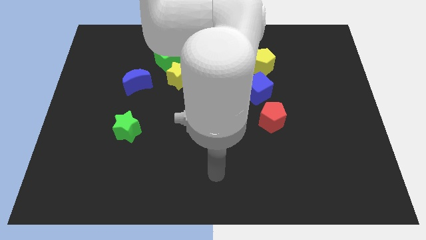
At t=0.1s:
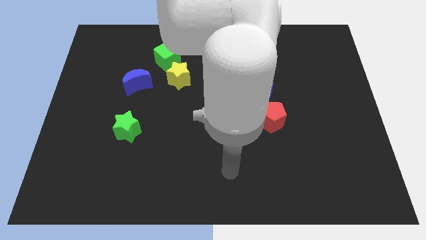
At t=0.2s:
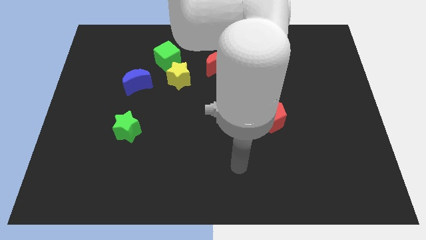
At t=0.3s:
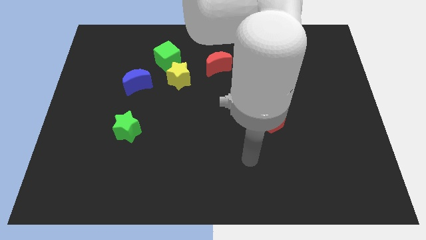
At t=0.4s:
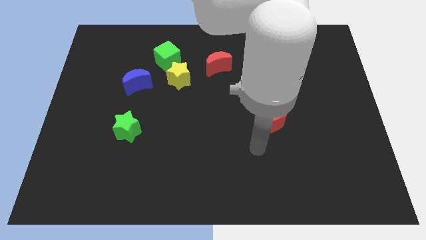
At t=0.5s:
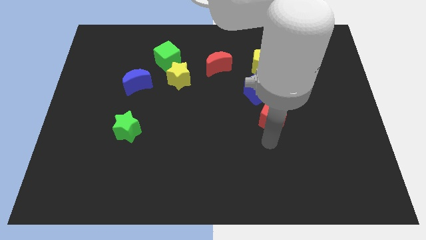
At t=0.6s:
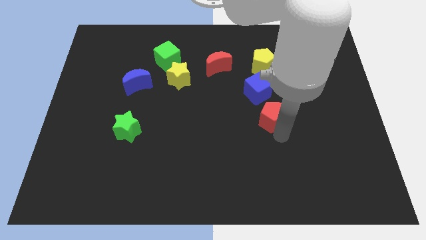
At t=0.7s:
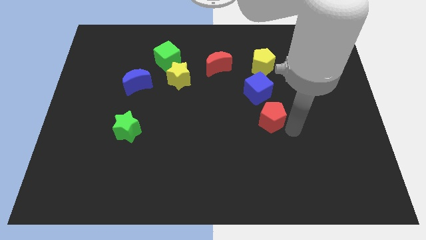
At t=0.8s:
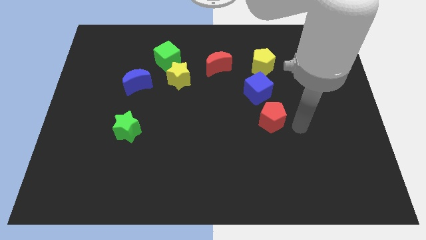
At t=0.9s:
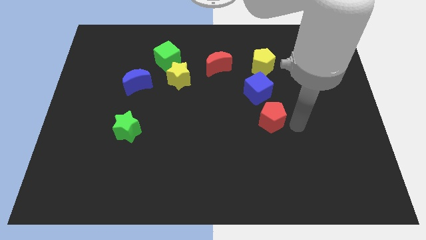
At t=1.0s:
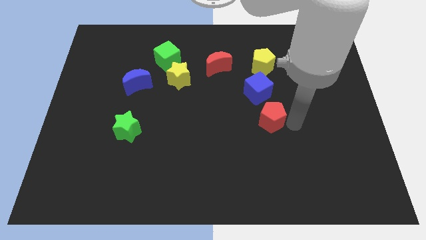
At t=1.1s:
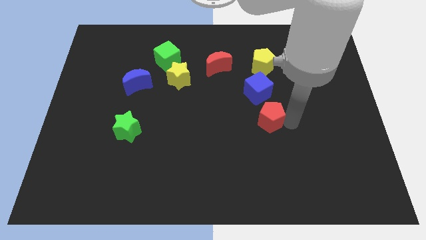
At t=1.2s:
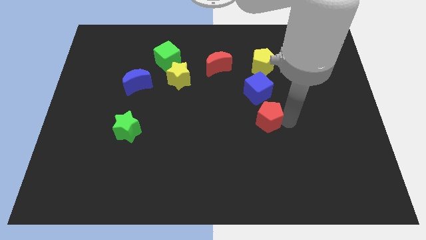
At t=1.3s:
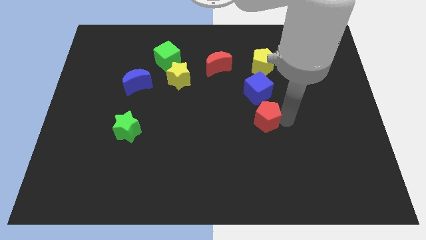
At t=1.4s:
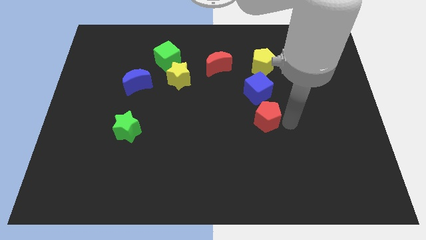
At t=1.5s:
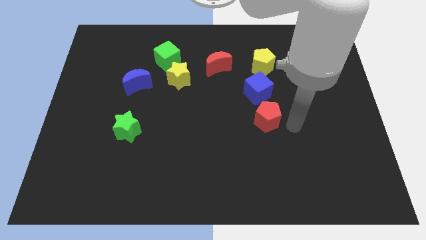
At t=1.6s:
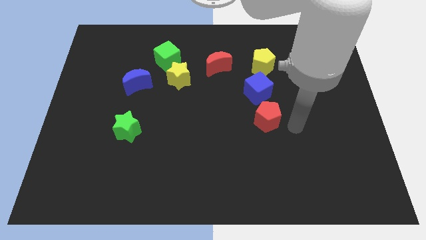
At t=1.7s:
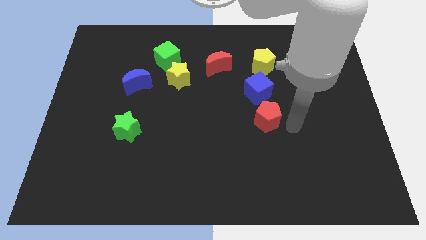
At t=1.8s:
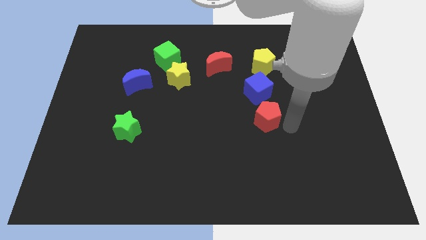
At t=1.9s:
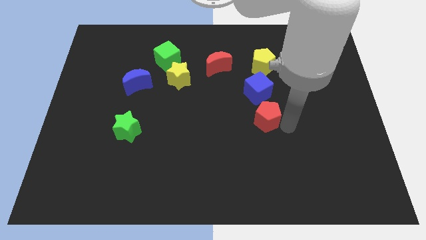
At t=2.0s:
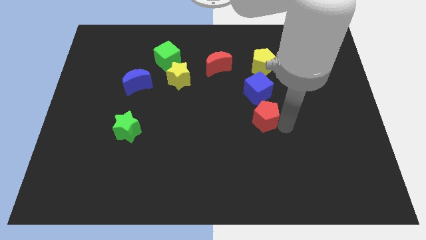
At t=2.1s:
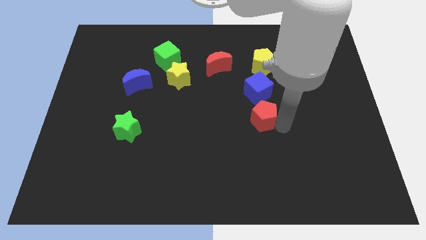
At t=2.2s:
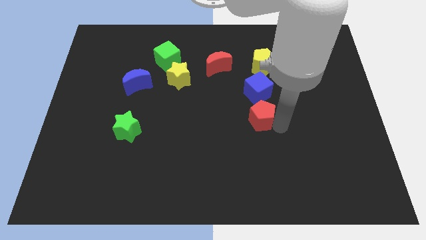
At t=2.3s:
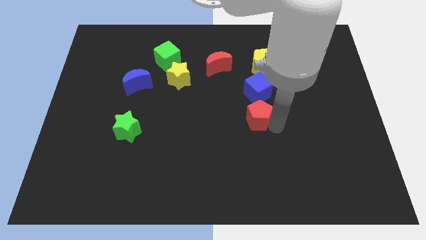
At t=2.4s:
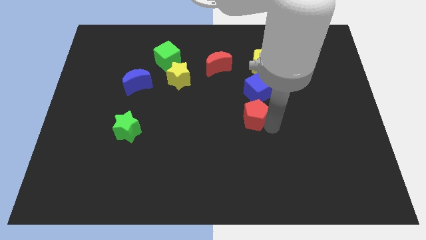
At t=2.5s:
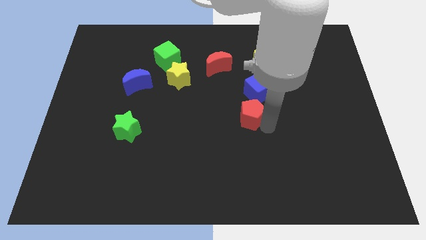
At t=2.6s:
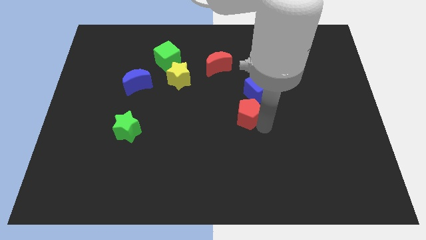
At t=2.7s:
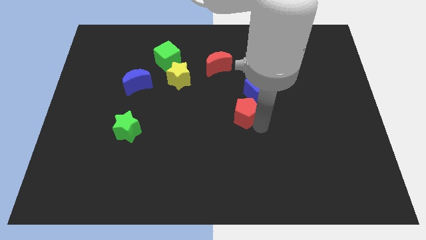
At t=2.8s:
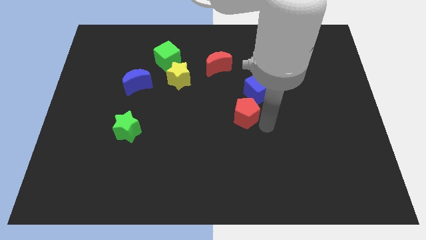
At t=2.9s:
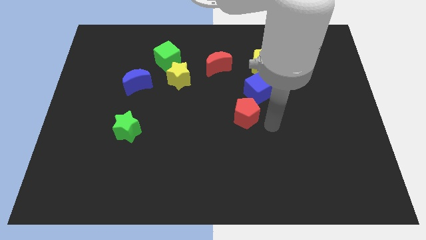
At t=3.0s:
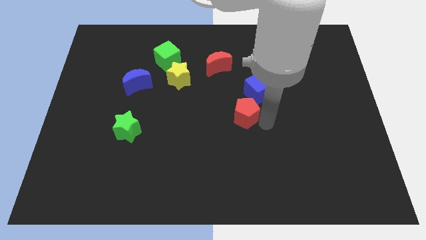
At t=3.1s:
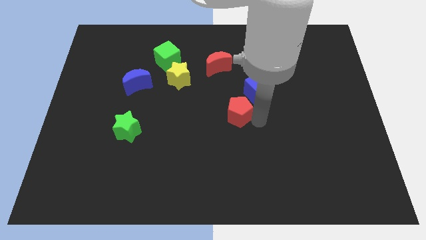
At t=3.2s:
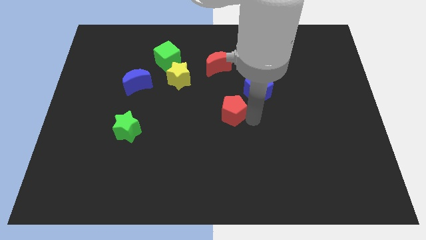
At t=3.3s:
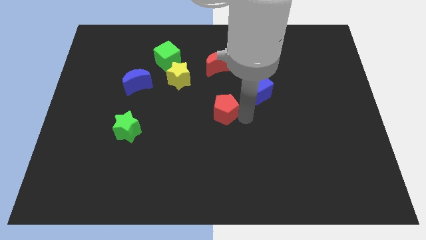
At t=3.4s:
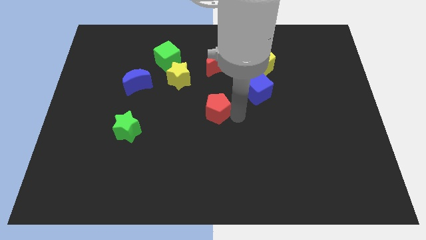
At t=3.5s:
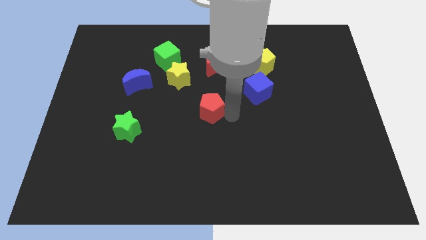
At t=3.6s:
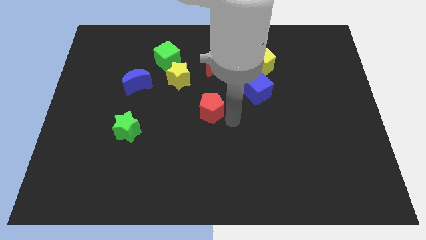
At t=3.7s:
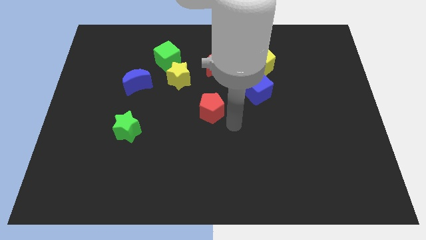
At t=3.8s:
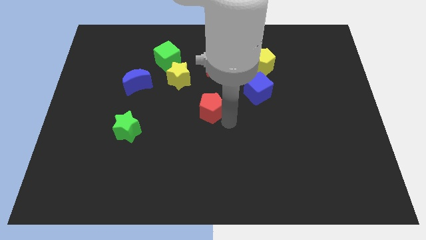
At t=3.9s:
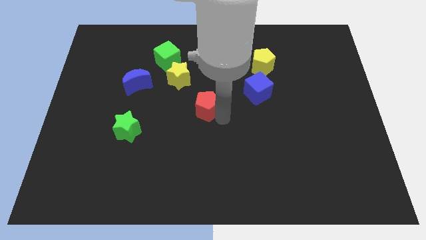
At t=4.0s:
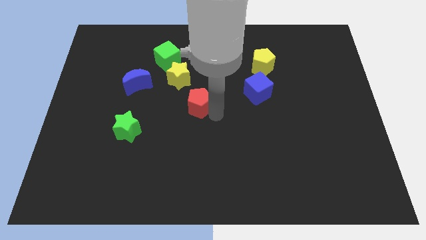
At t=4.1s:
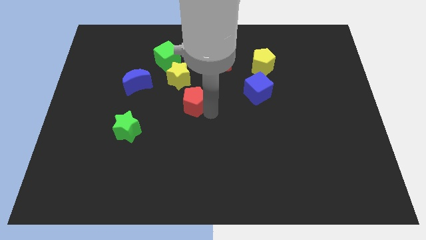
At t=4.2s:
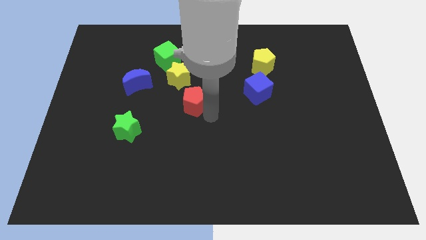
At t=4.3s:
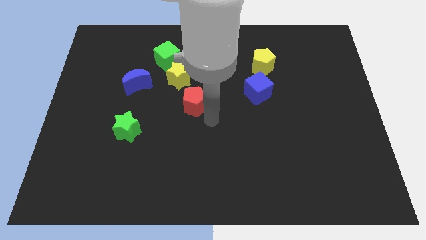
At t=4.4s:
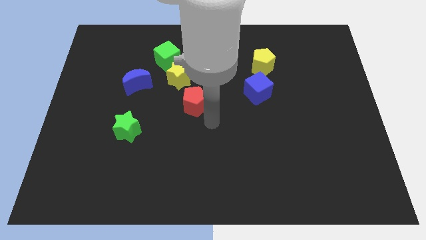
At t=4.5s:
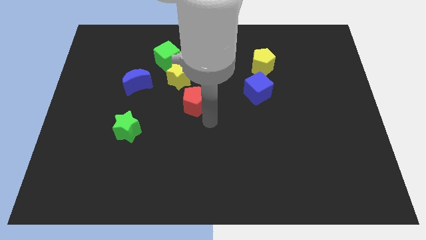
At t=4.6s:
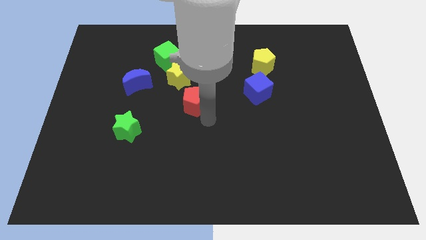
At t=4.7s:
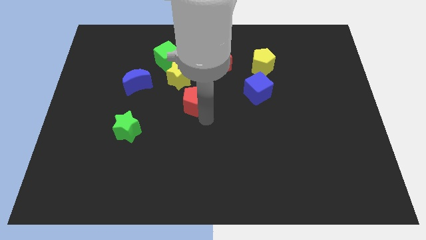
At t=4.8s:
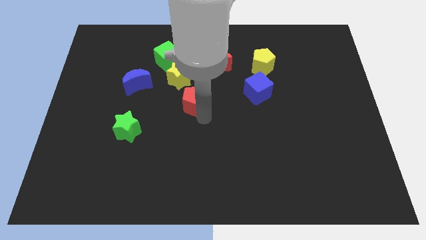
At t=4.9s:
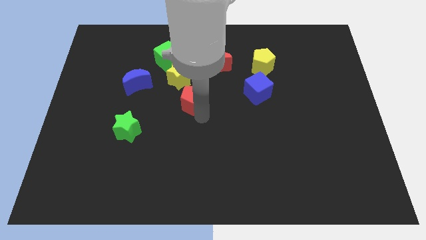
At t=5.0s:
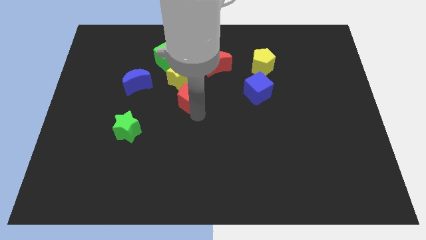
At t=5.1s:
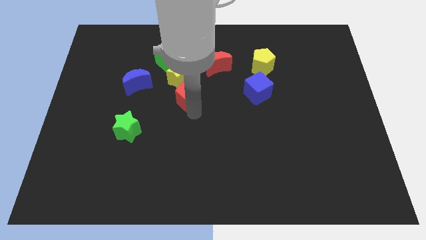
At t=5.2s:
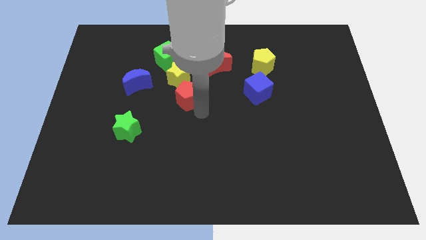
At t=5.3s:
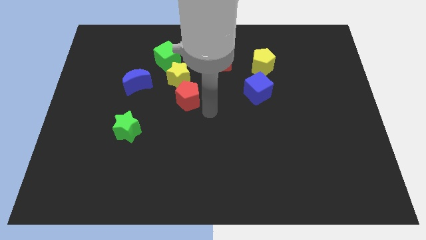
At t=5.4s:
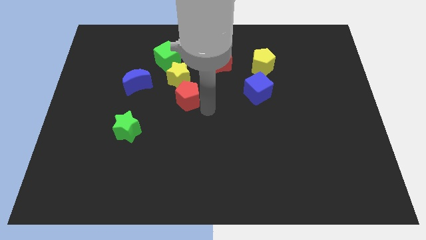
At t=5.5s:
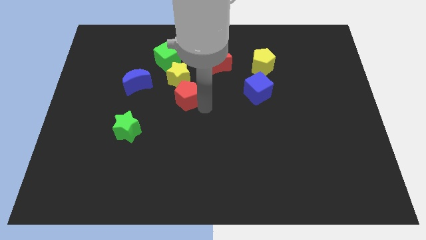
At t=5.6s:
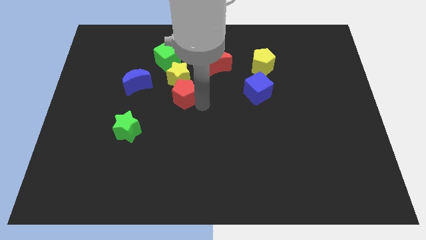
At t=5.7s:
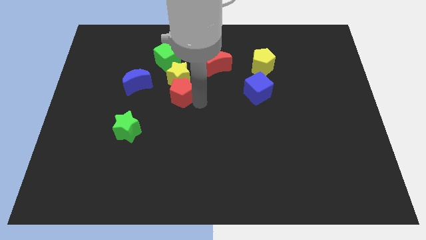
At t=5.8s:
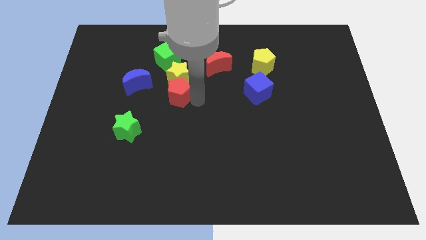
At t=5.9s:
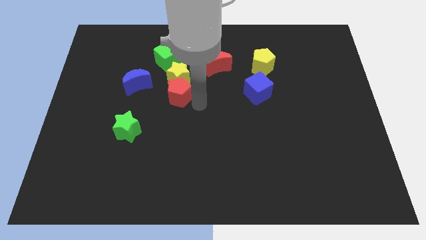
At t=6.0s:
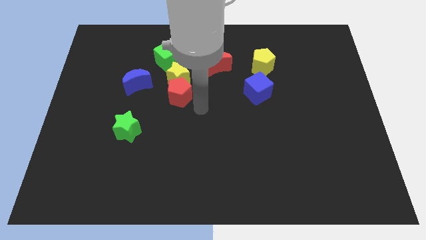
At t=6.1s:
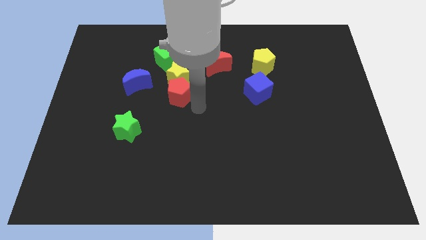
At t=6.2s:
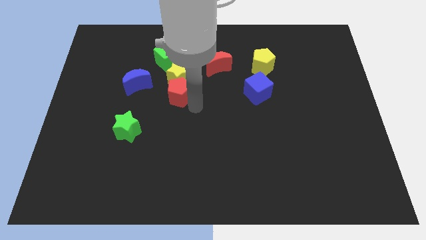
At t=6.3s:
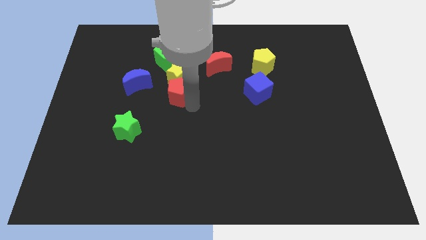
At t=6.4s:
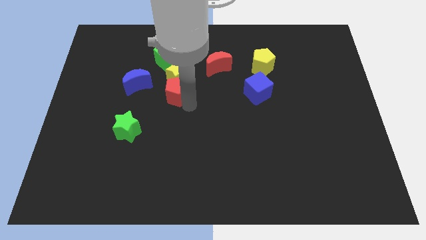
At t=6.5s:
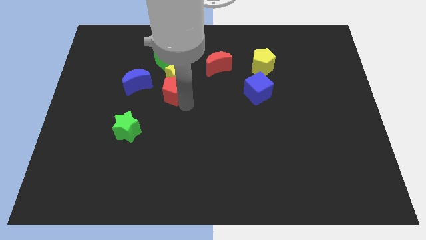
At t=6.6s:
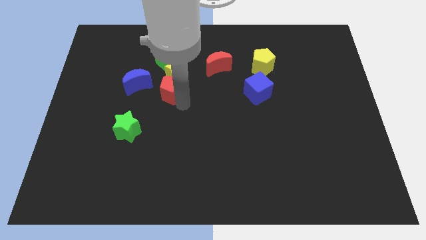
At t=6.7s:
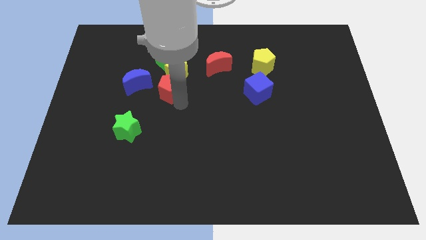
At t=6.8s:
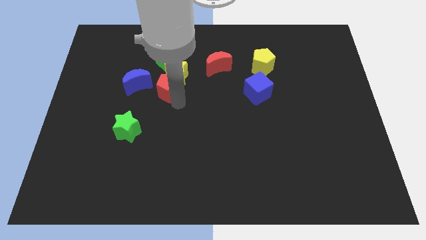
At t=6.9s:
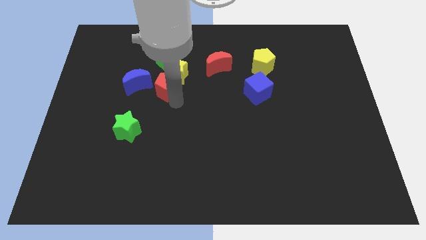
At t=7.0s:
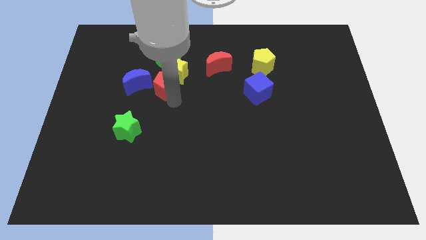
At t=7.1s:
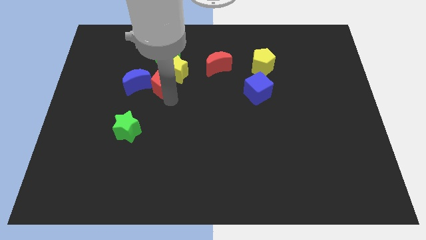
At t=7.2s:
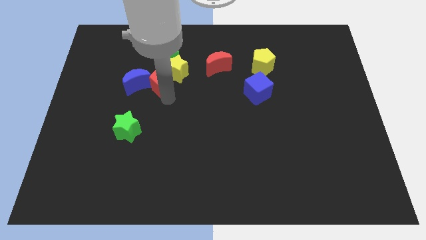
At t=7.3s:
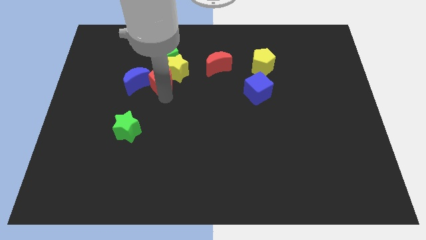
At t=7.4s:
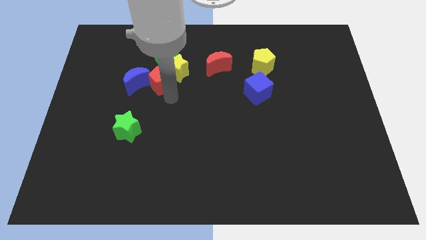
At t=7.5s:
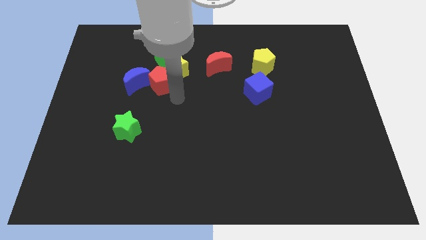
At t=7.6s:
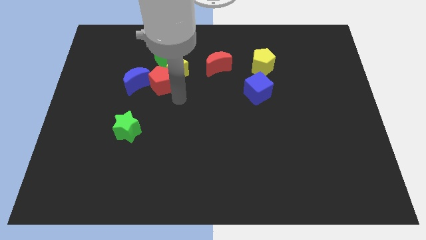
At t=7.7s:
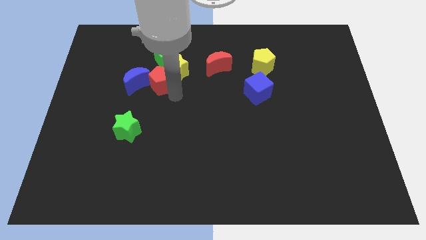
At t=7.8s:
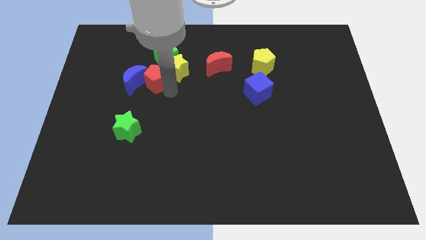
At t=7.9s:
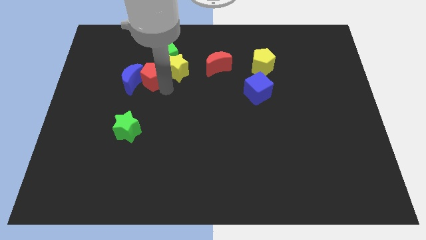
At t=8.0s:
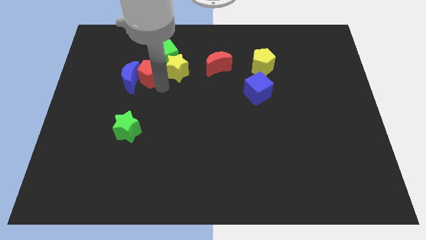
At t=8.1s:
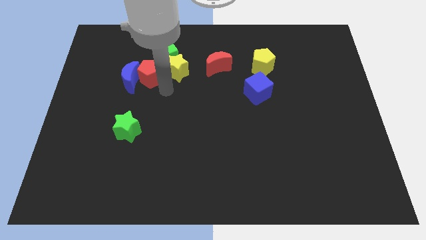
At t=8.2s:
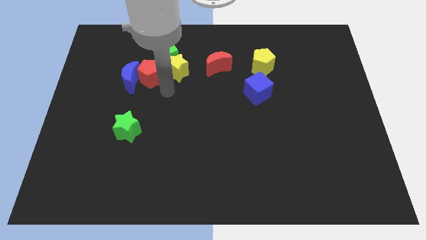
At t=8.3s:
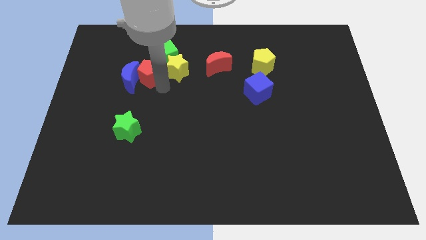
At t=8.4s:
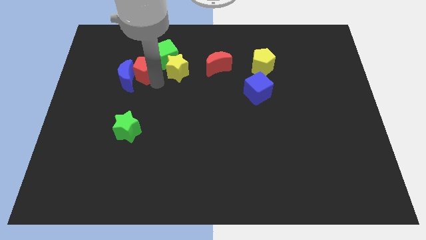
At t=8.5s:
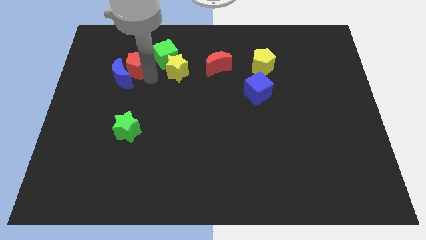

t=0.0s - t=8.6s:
put the red pentagon left of the green cube
